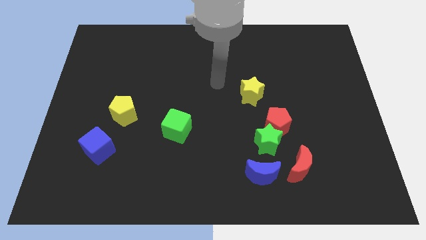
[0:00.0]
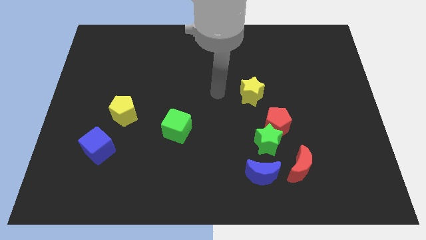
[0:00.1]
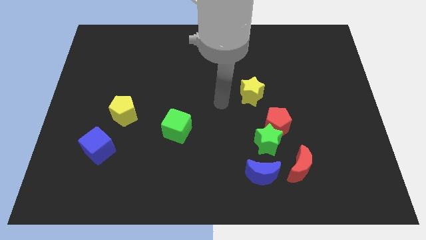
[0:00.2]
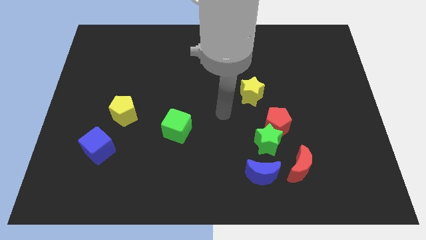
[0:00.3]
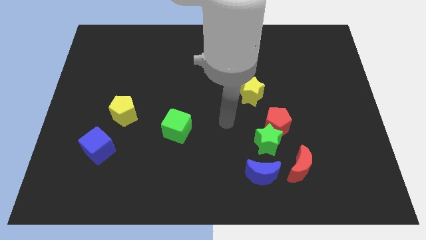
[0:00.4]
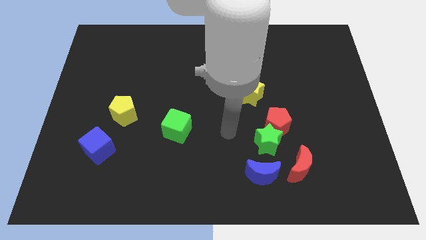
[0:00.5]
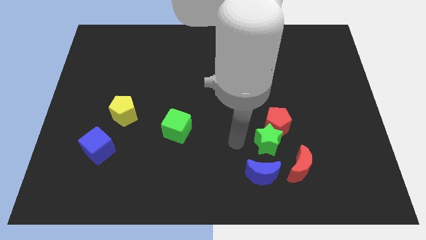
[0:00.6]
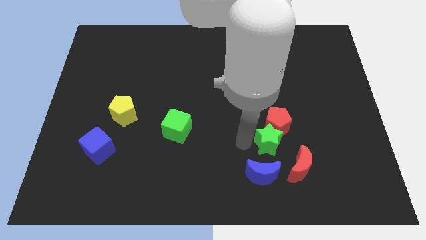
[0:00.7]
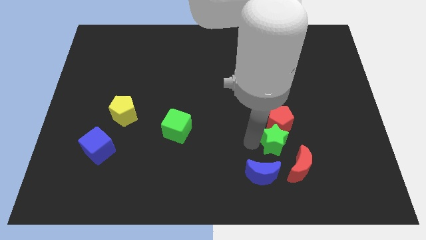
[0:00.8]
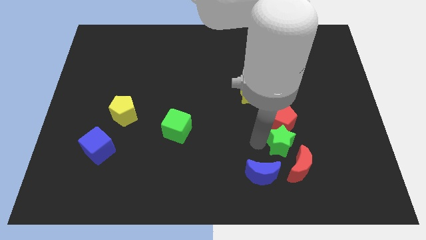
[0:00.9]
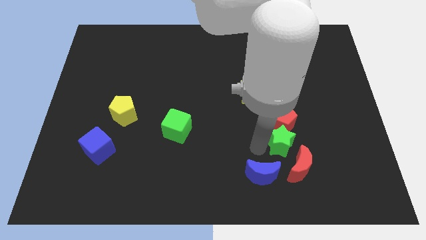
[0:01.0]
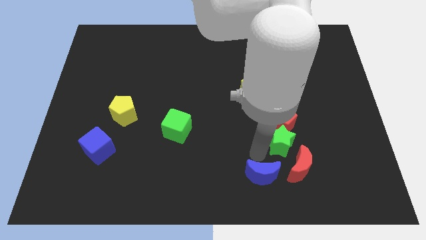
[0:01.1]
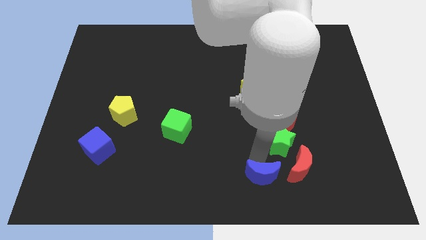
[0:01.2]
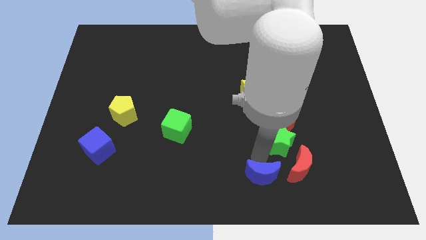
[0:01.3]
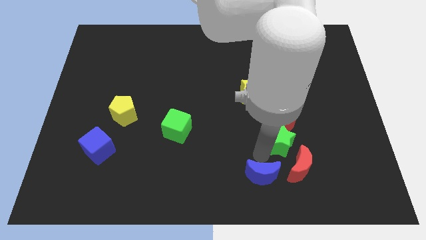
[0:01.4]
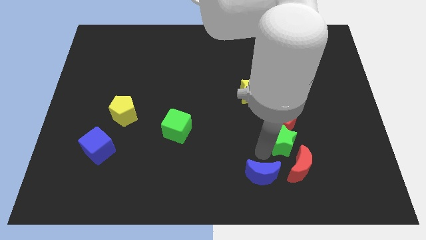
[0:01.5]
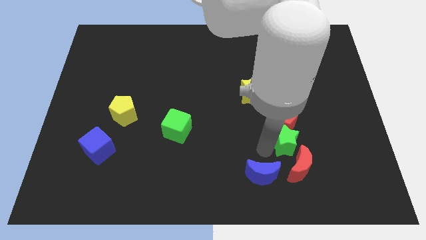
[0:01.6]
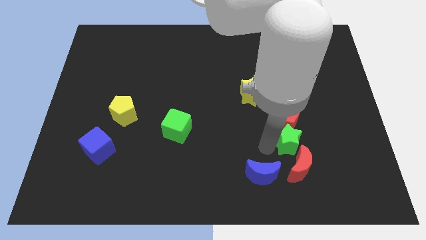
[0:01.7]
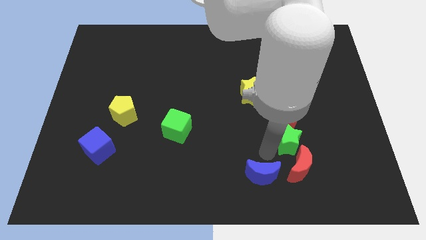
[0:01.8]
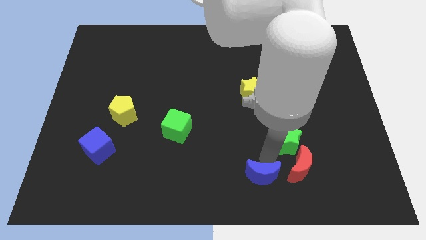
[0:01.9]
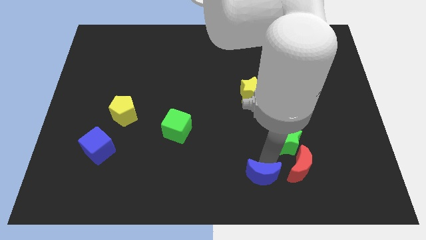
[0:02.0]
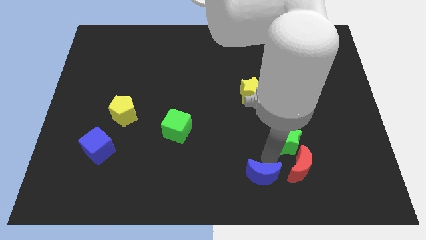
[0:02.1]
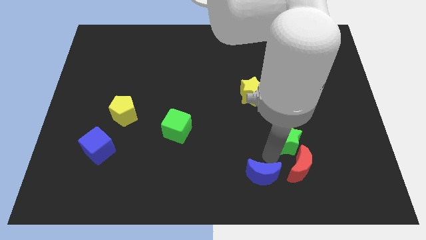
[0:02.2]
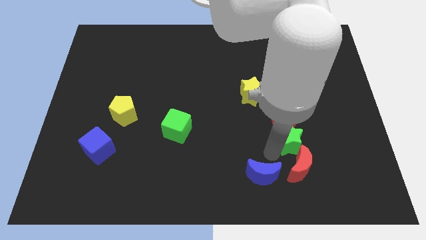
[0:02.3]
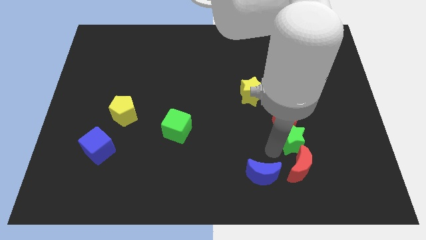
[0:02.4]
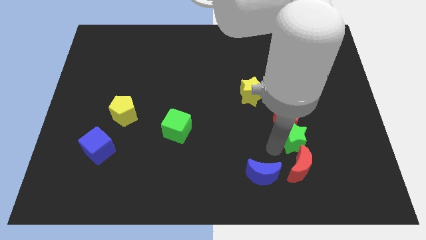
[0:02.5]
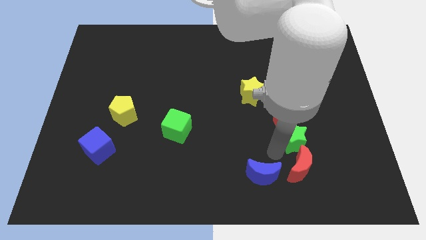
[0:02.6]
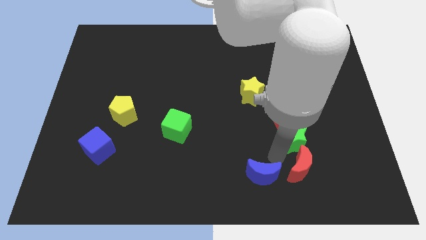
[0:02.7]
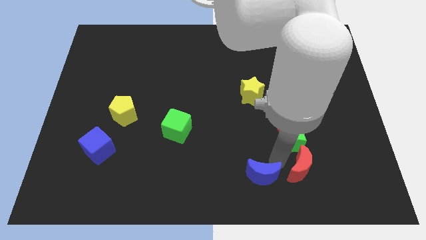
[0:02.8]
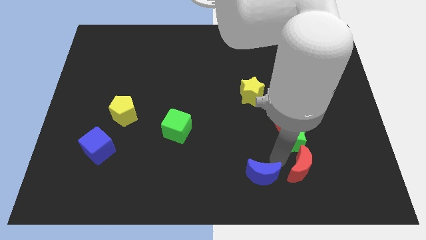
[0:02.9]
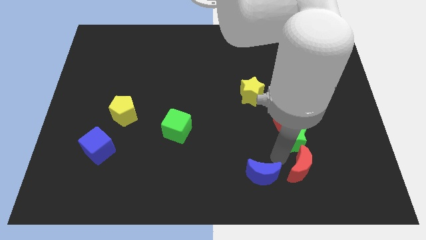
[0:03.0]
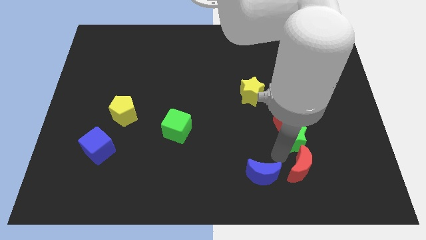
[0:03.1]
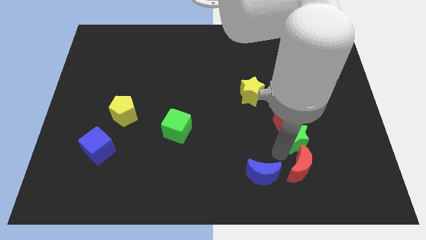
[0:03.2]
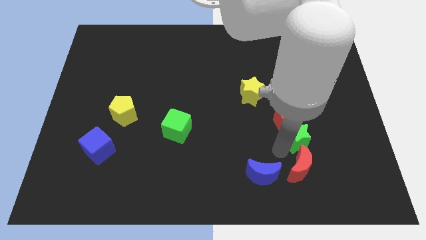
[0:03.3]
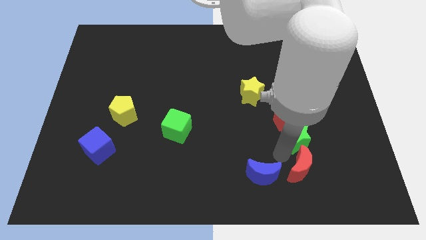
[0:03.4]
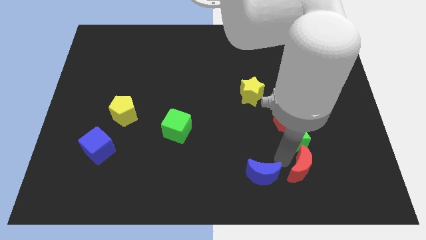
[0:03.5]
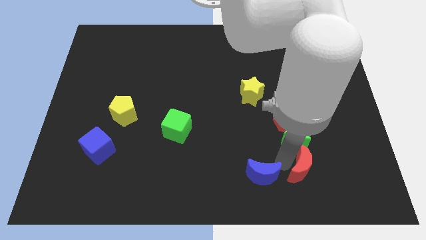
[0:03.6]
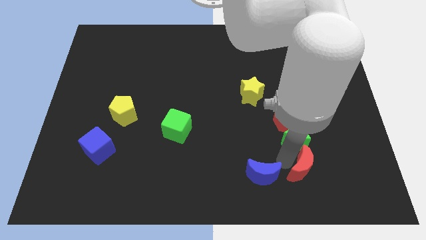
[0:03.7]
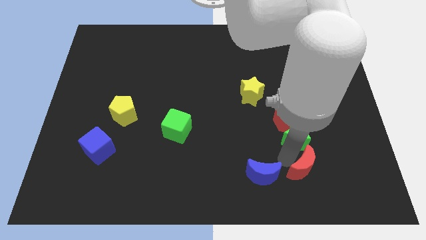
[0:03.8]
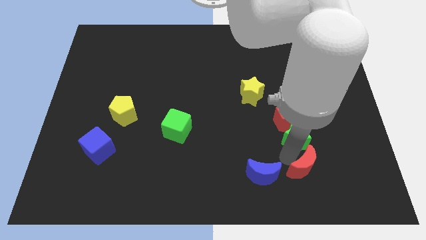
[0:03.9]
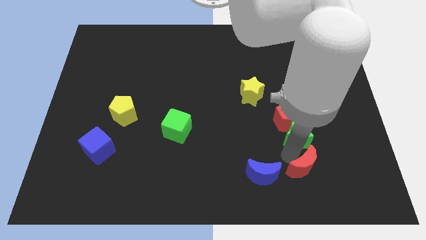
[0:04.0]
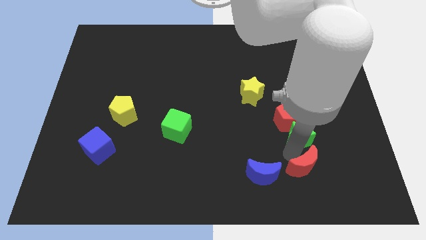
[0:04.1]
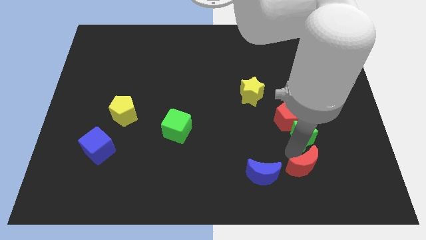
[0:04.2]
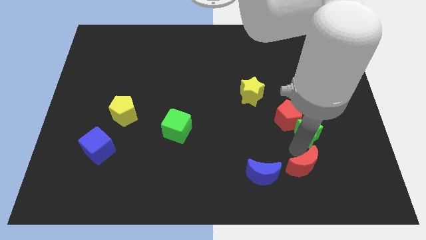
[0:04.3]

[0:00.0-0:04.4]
slightly push the green star upwards and to the right diagonally

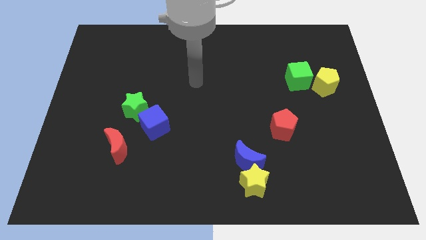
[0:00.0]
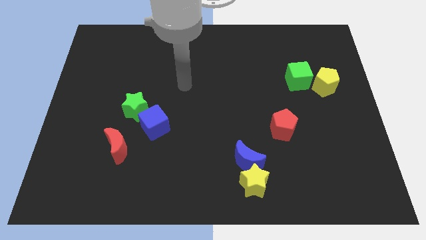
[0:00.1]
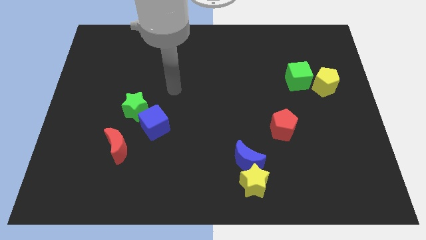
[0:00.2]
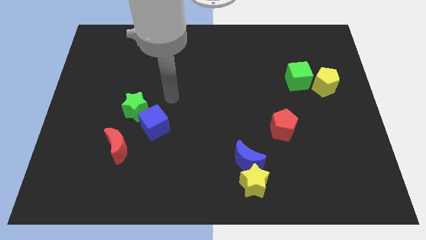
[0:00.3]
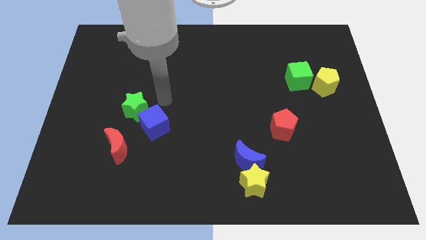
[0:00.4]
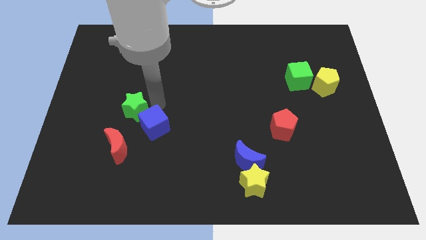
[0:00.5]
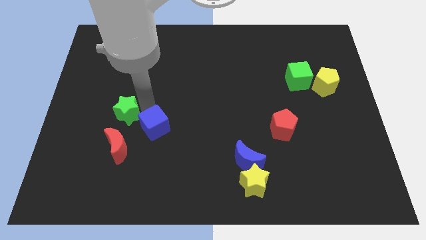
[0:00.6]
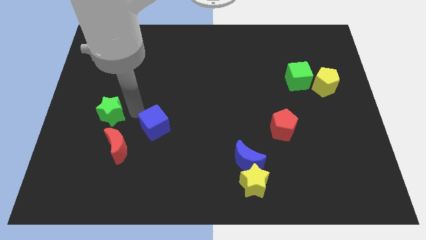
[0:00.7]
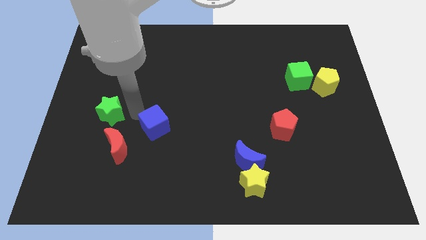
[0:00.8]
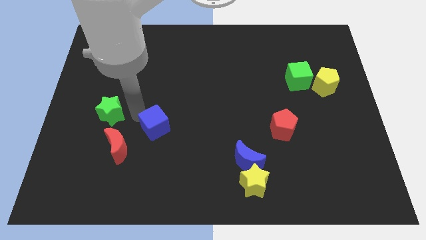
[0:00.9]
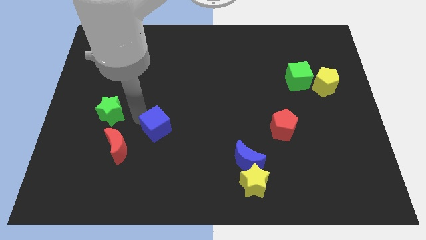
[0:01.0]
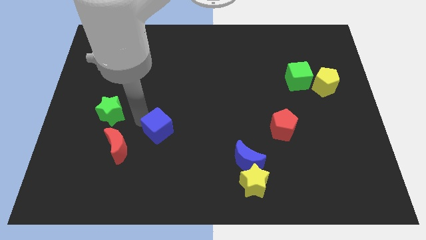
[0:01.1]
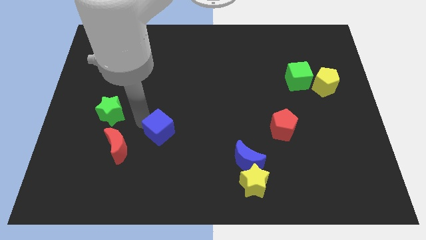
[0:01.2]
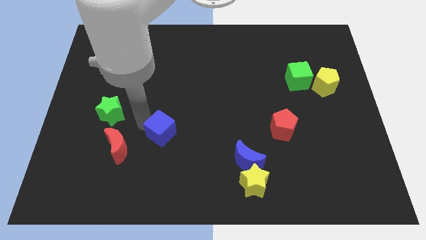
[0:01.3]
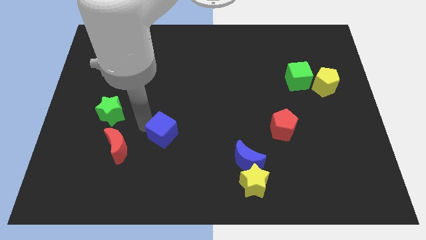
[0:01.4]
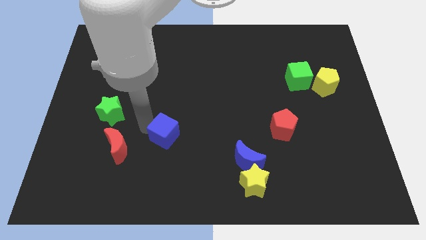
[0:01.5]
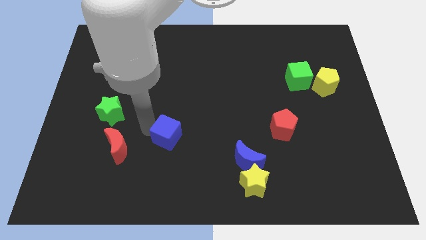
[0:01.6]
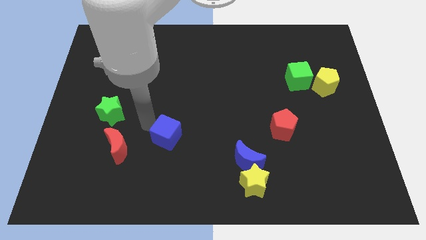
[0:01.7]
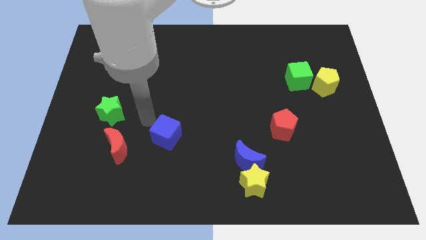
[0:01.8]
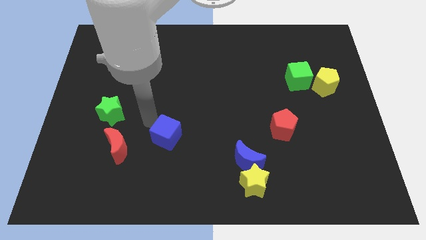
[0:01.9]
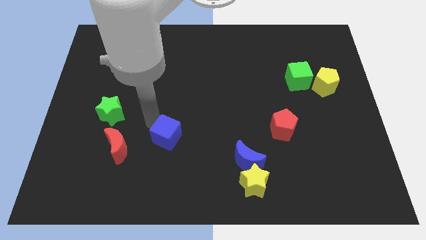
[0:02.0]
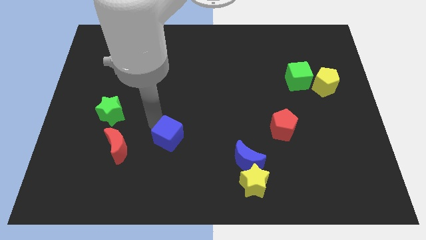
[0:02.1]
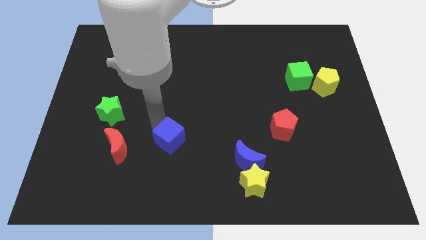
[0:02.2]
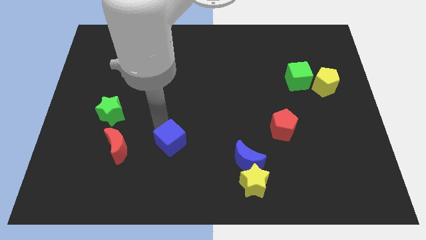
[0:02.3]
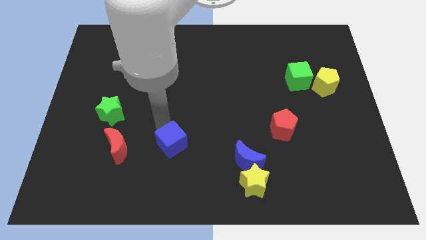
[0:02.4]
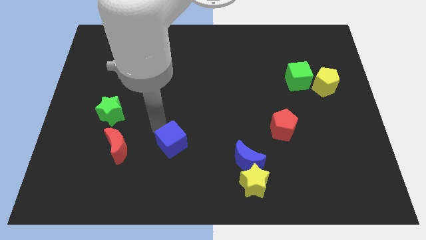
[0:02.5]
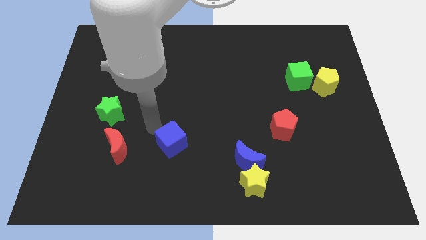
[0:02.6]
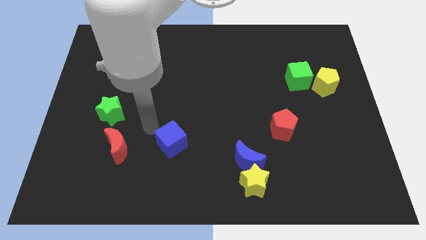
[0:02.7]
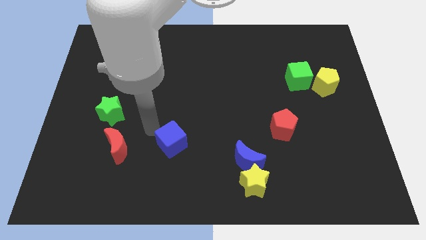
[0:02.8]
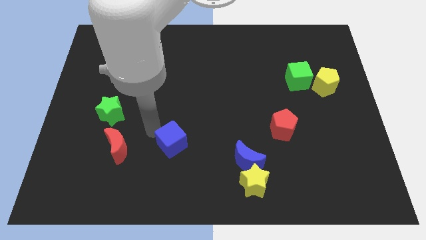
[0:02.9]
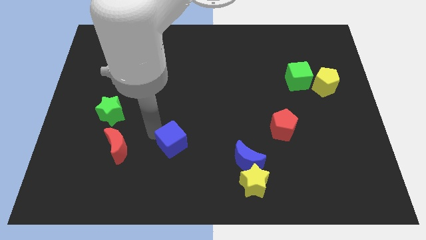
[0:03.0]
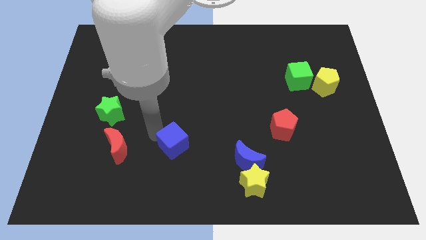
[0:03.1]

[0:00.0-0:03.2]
slide the blue cube down and right diagonally somewhat
